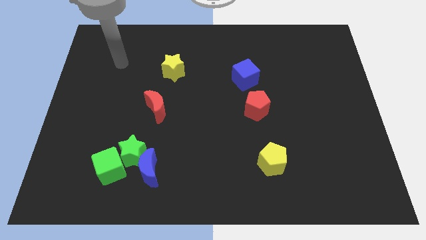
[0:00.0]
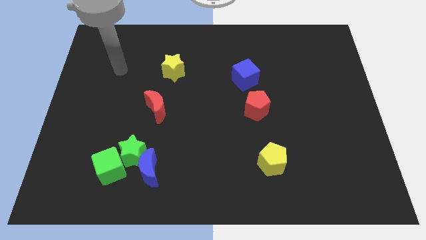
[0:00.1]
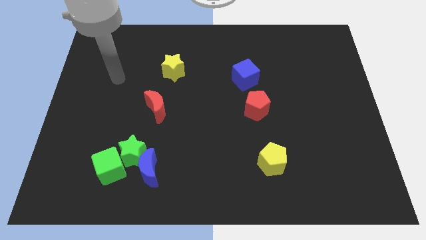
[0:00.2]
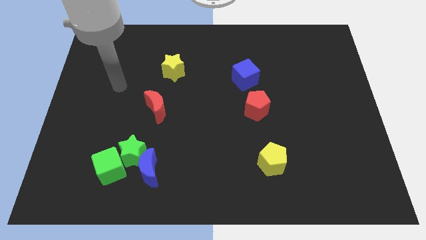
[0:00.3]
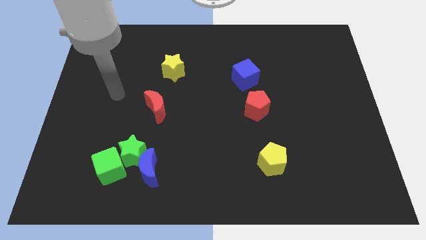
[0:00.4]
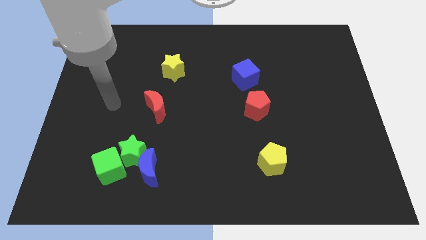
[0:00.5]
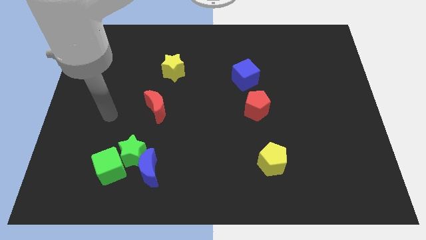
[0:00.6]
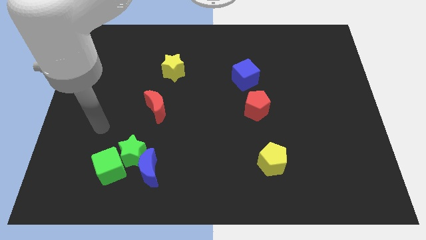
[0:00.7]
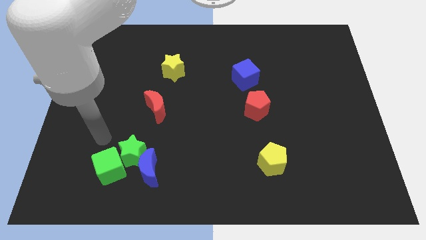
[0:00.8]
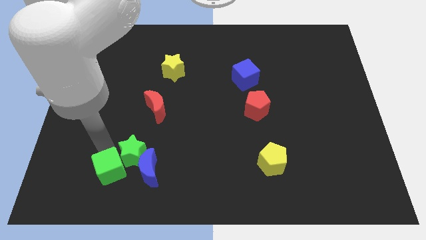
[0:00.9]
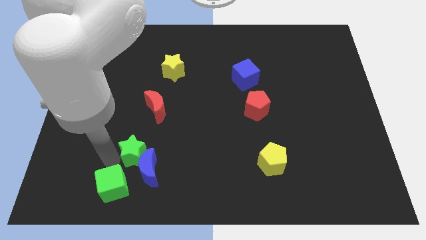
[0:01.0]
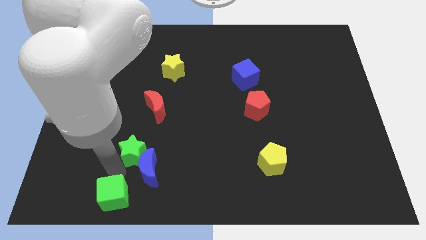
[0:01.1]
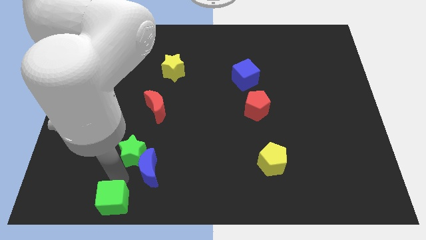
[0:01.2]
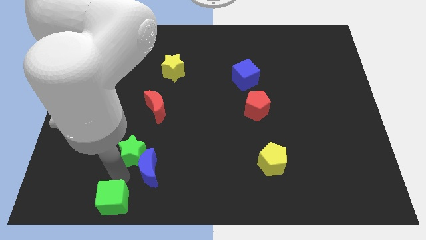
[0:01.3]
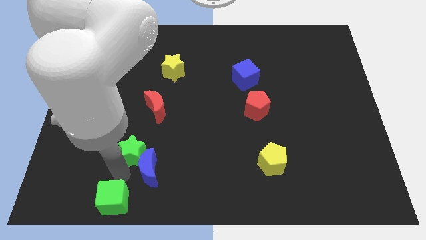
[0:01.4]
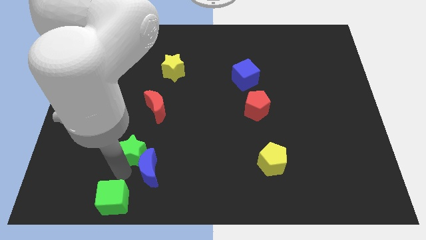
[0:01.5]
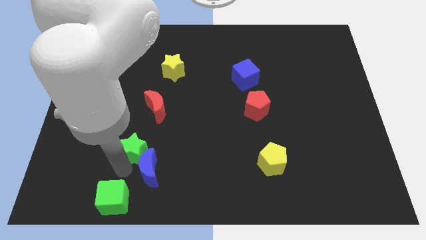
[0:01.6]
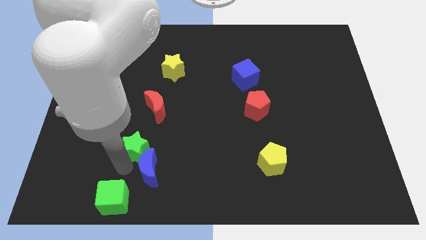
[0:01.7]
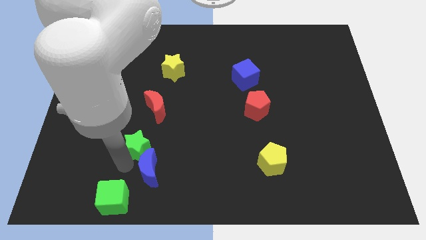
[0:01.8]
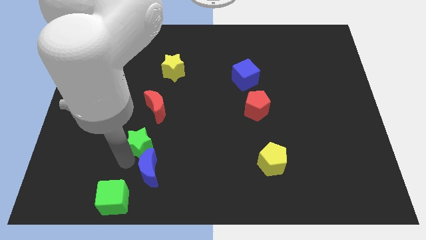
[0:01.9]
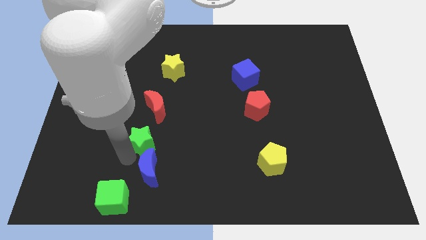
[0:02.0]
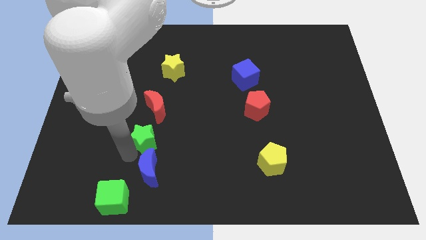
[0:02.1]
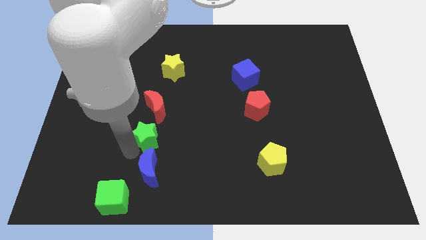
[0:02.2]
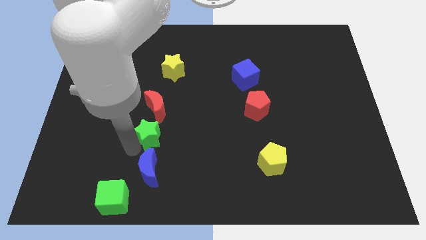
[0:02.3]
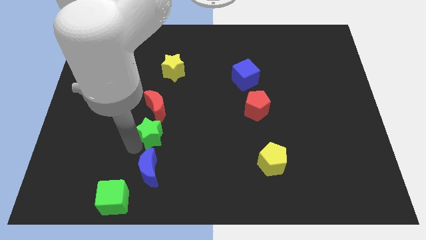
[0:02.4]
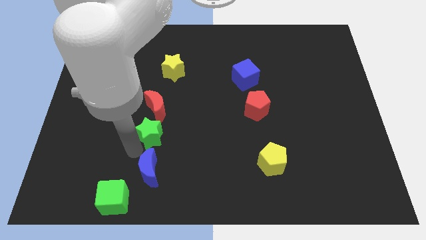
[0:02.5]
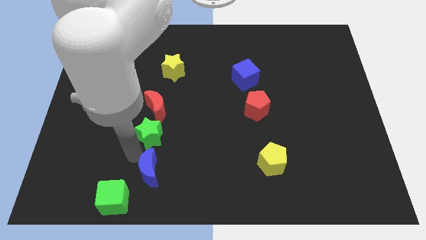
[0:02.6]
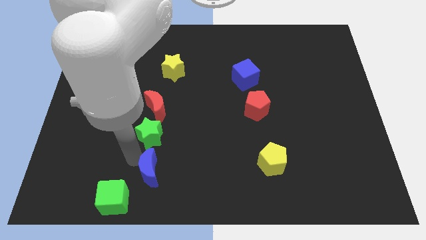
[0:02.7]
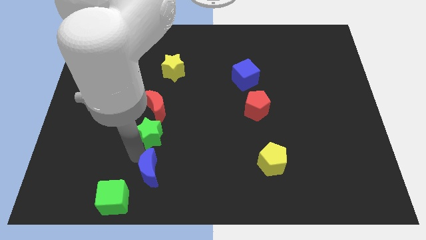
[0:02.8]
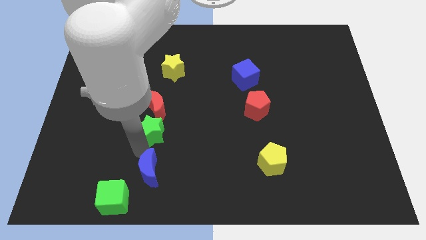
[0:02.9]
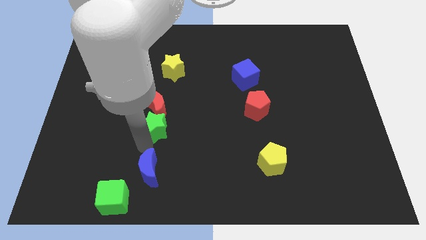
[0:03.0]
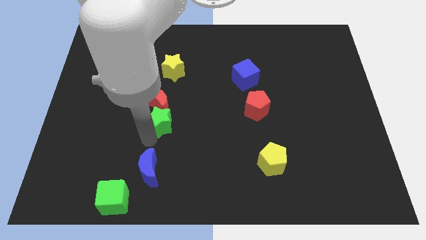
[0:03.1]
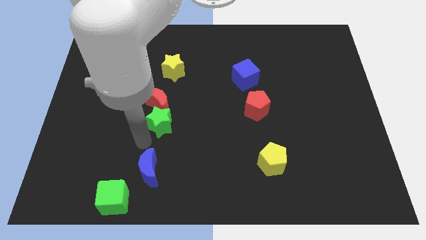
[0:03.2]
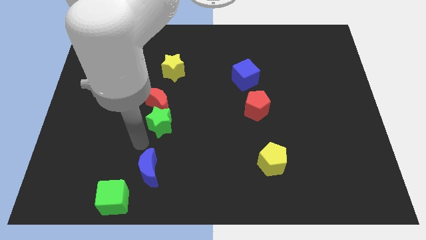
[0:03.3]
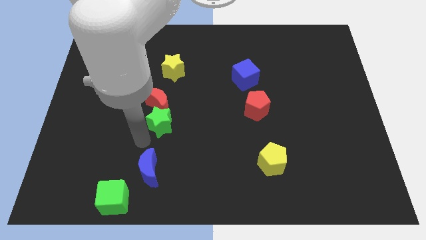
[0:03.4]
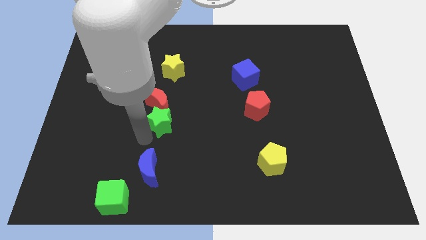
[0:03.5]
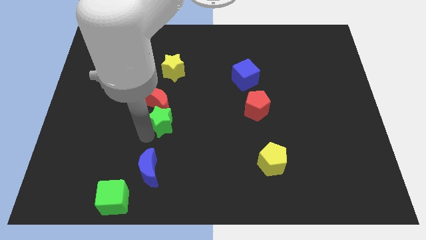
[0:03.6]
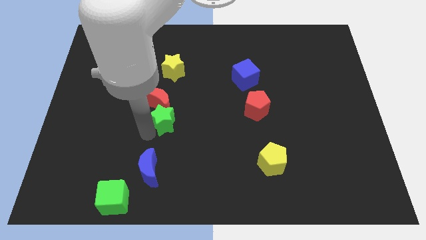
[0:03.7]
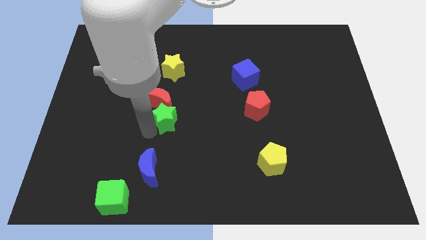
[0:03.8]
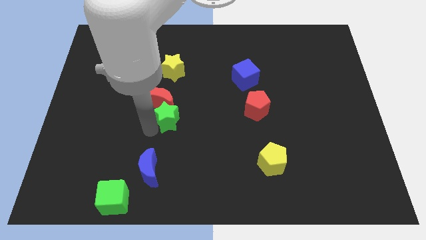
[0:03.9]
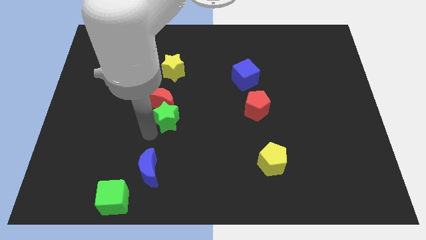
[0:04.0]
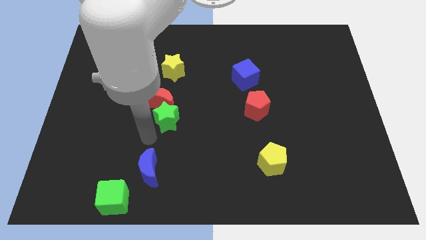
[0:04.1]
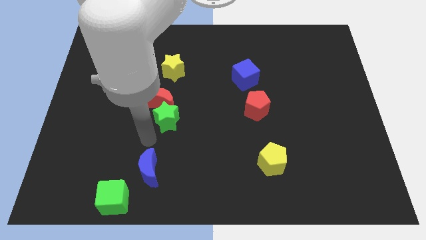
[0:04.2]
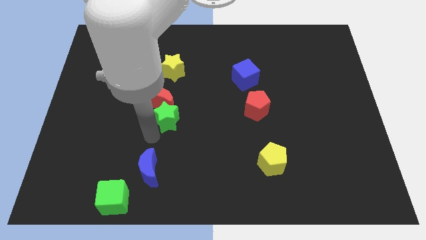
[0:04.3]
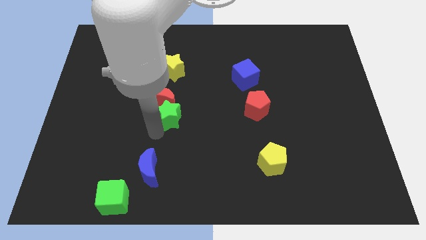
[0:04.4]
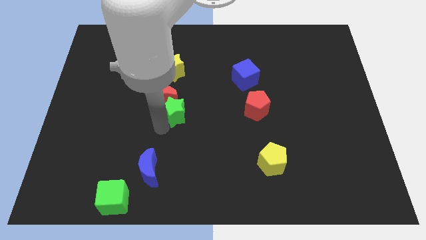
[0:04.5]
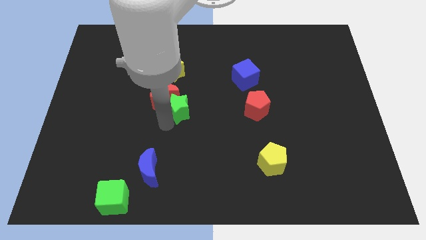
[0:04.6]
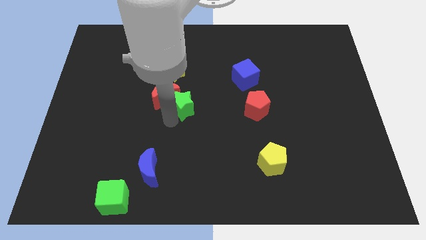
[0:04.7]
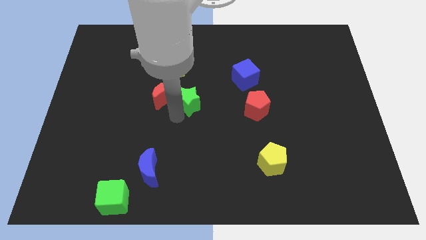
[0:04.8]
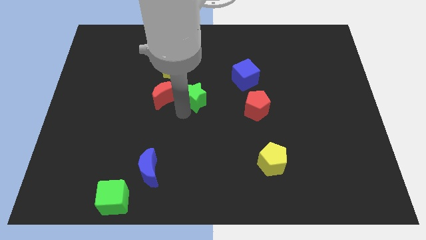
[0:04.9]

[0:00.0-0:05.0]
put the green star to the bottom right side of the yellow star

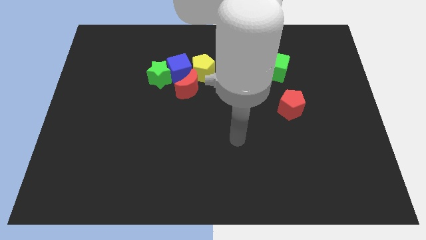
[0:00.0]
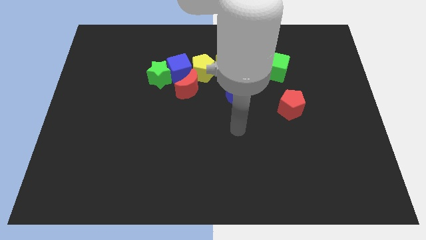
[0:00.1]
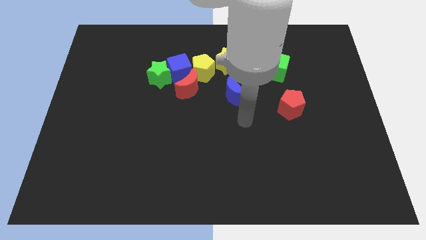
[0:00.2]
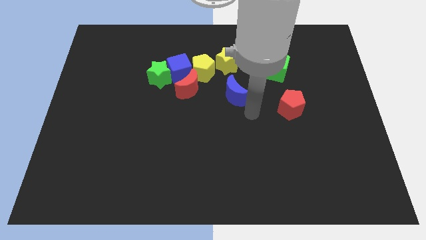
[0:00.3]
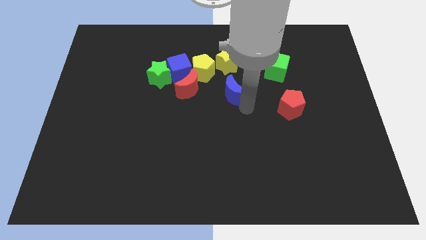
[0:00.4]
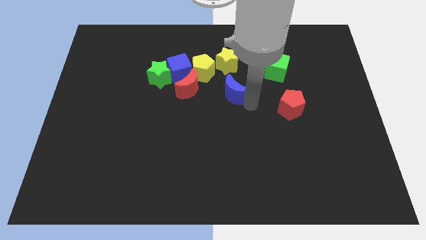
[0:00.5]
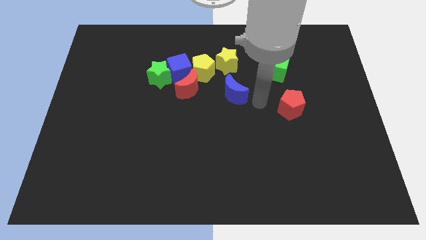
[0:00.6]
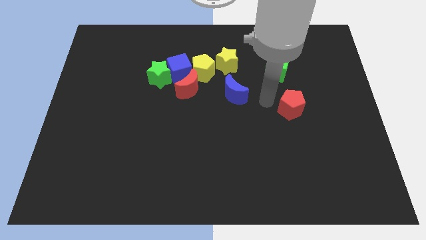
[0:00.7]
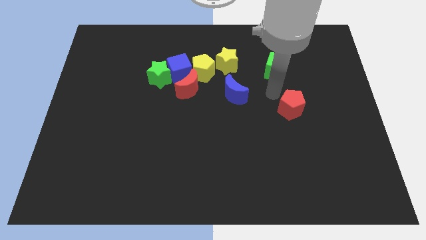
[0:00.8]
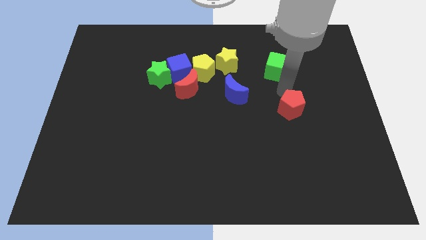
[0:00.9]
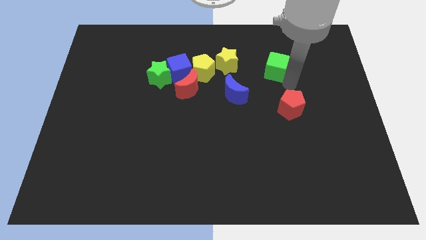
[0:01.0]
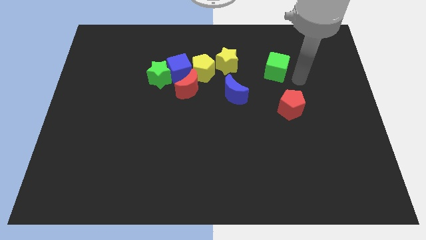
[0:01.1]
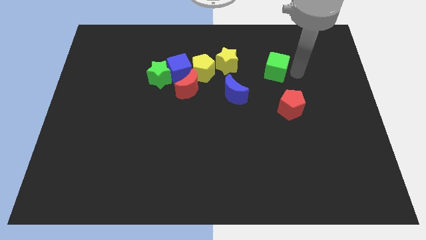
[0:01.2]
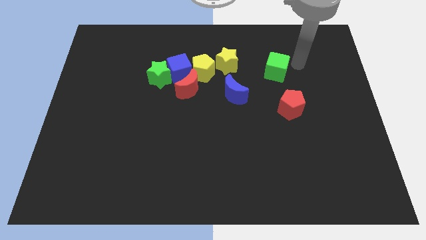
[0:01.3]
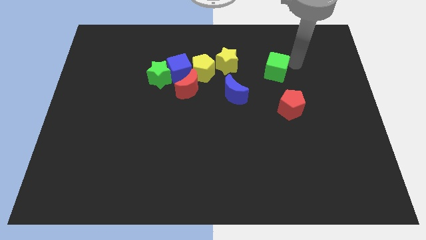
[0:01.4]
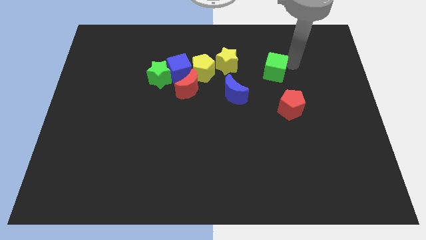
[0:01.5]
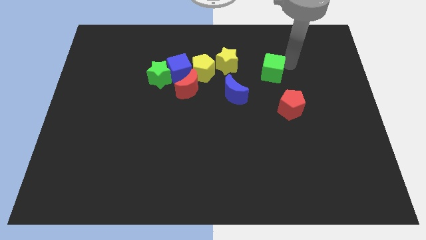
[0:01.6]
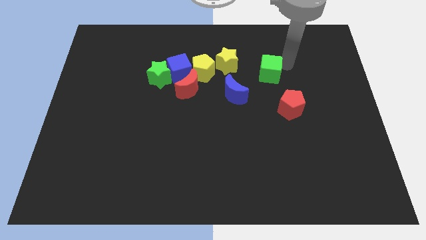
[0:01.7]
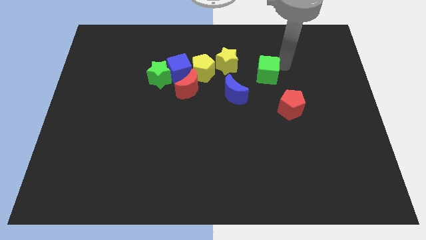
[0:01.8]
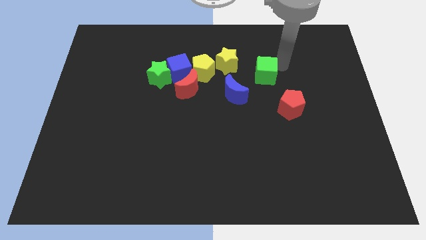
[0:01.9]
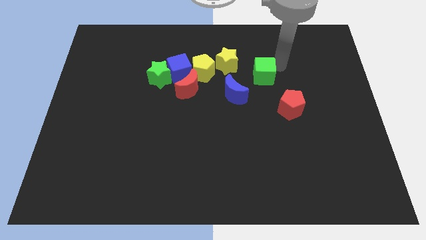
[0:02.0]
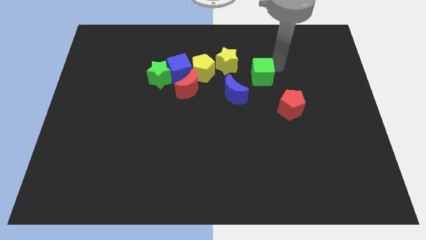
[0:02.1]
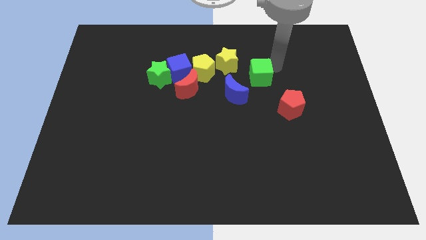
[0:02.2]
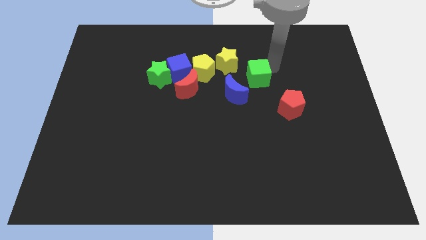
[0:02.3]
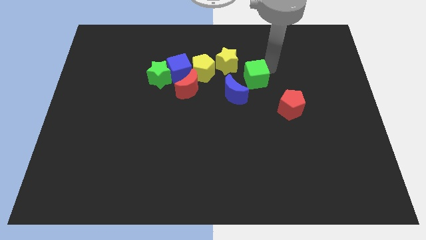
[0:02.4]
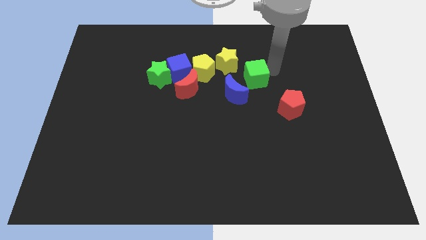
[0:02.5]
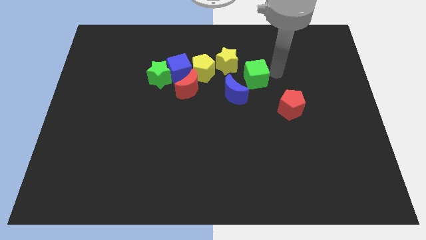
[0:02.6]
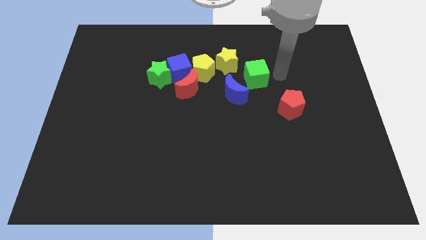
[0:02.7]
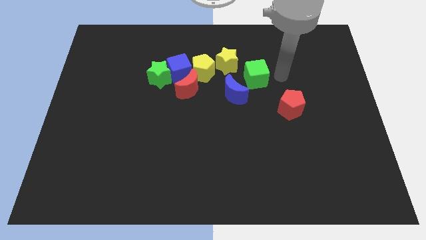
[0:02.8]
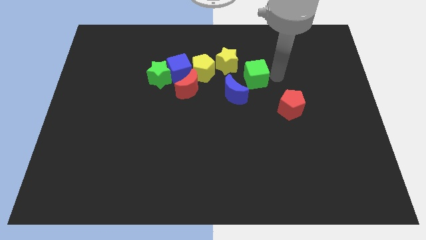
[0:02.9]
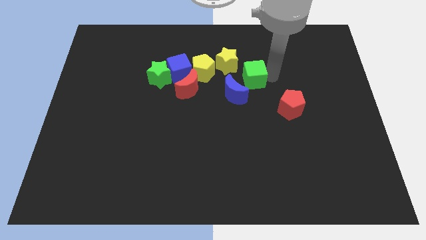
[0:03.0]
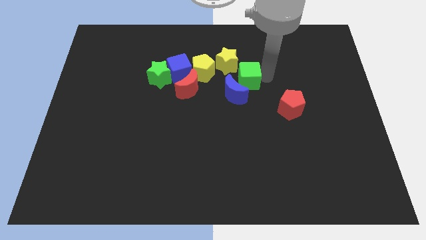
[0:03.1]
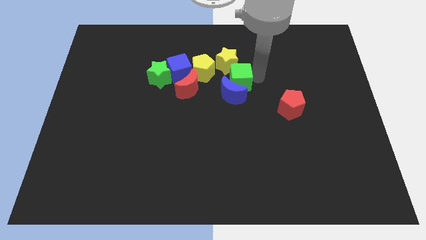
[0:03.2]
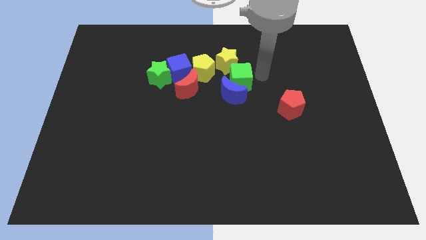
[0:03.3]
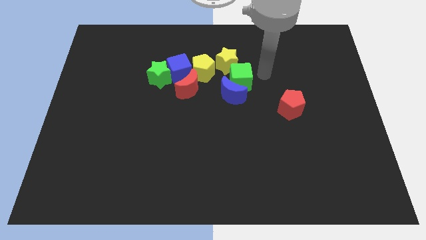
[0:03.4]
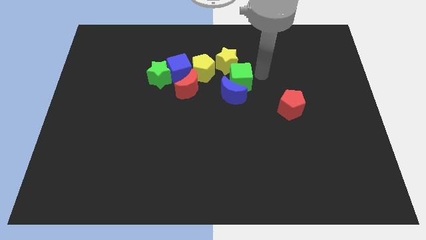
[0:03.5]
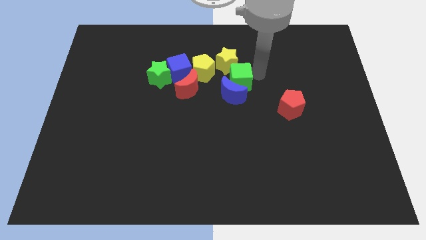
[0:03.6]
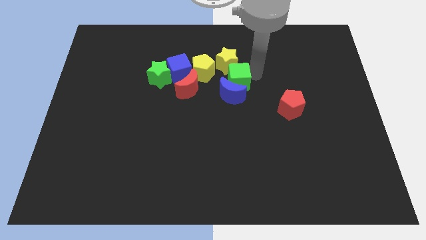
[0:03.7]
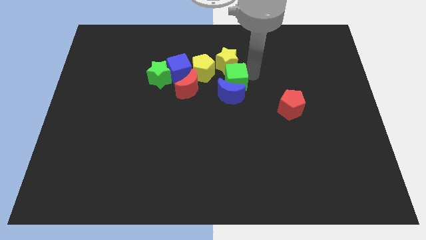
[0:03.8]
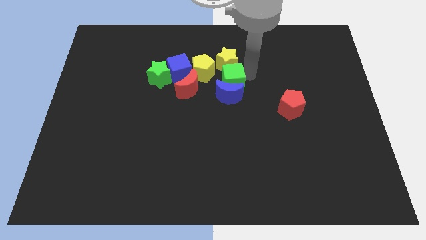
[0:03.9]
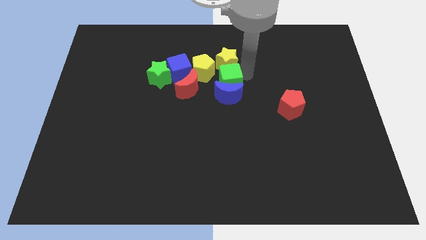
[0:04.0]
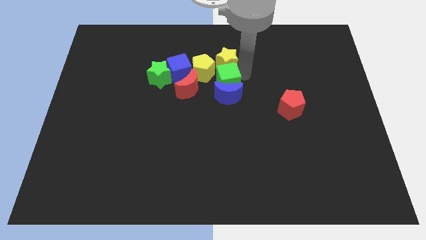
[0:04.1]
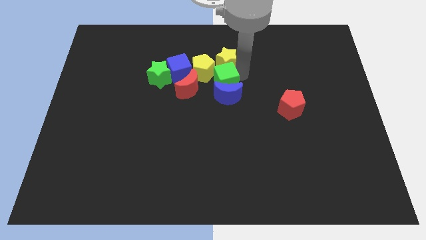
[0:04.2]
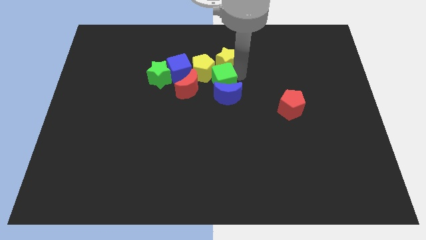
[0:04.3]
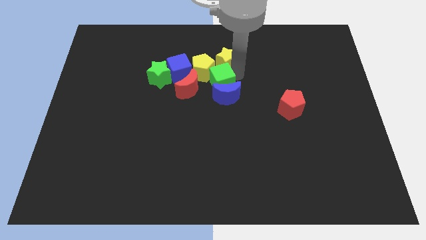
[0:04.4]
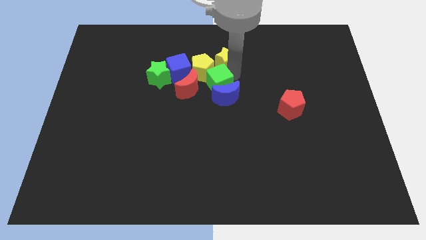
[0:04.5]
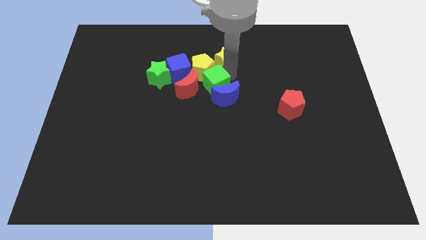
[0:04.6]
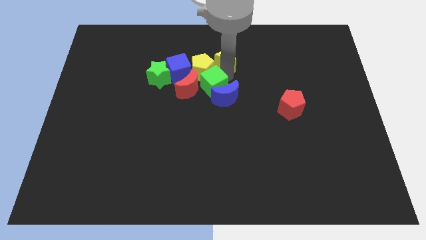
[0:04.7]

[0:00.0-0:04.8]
push the green cube just left of the blue moon
